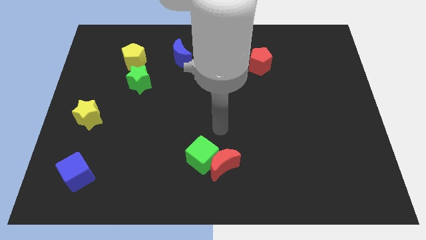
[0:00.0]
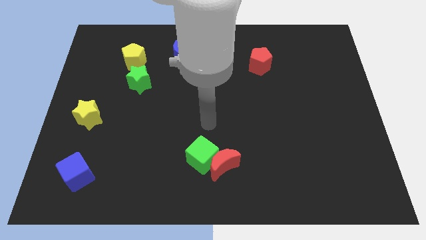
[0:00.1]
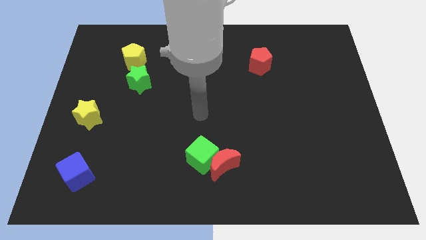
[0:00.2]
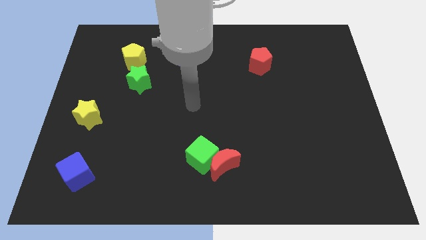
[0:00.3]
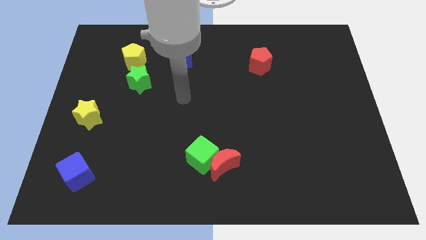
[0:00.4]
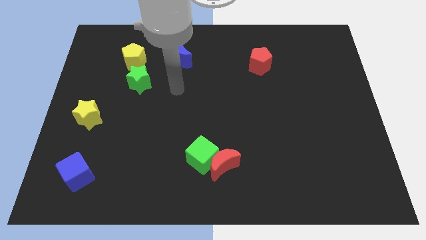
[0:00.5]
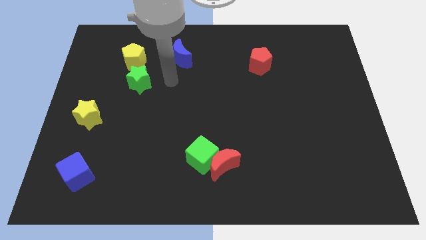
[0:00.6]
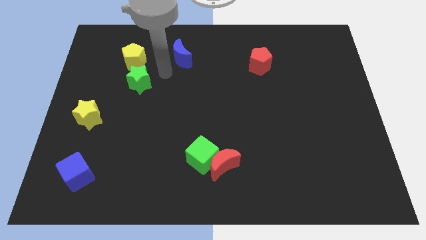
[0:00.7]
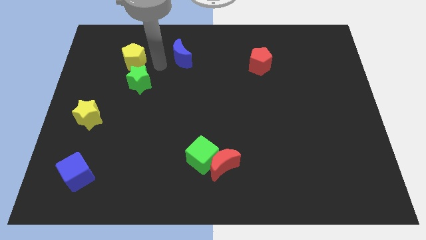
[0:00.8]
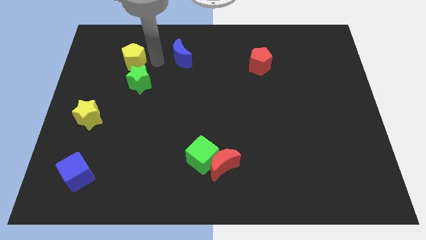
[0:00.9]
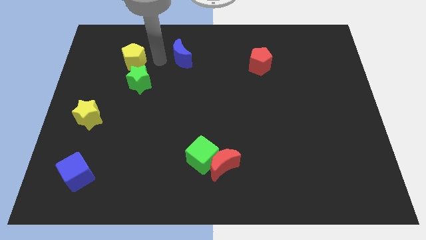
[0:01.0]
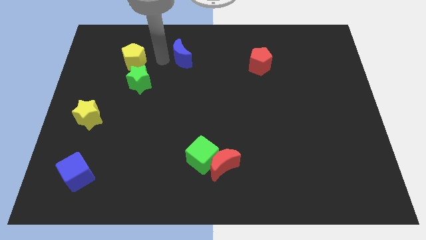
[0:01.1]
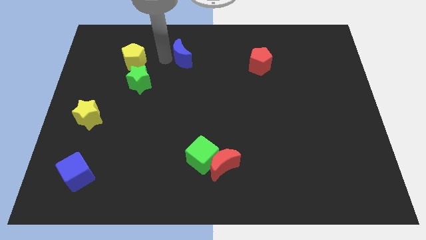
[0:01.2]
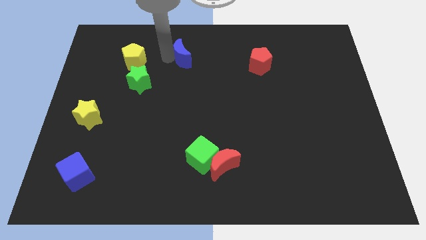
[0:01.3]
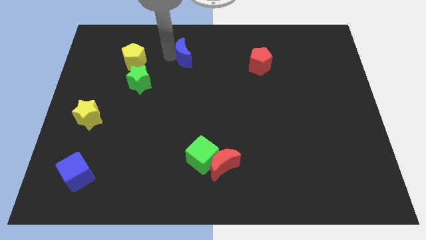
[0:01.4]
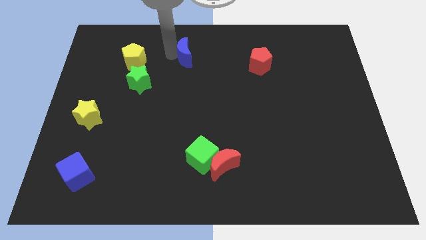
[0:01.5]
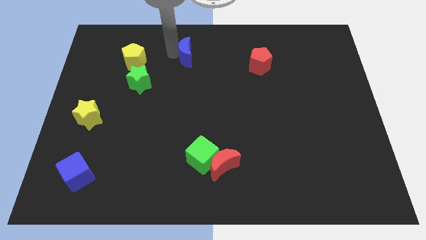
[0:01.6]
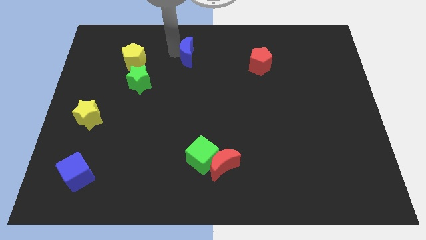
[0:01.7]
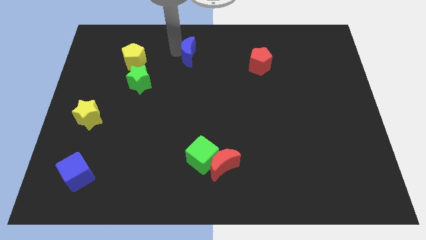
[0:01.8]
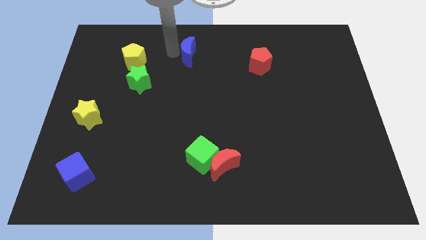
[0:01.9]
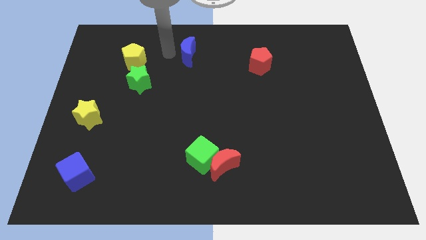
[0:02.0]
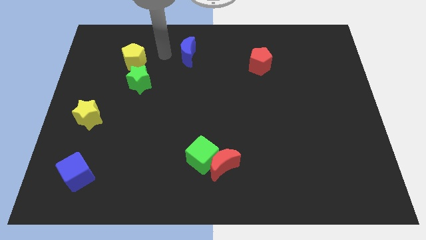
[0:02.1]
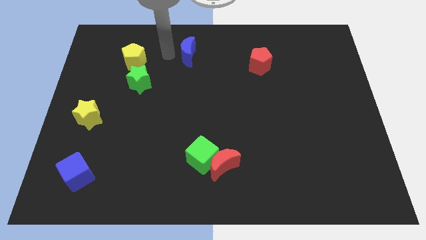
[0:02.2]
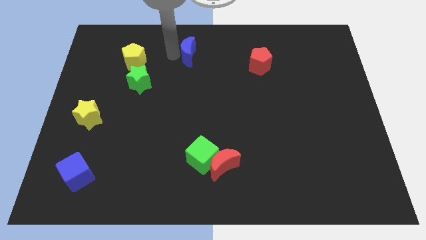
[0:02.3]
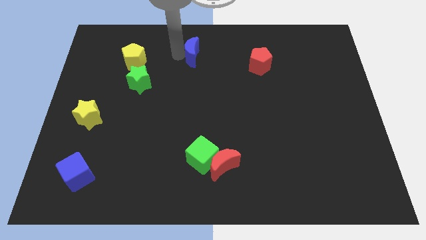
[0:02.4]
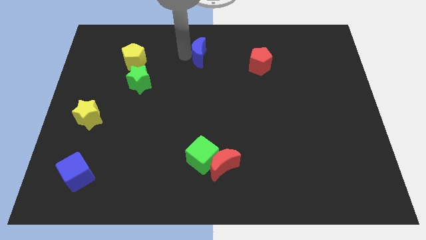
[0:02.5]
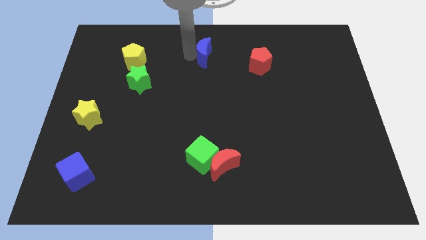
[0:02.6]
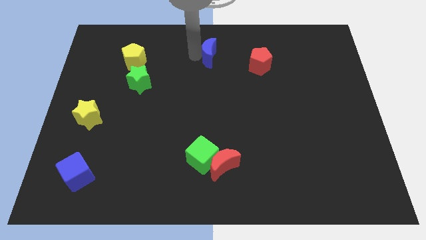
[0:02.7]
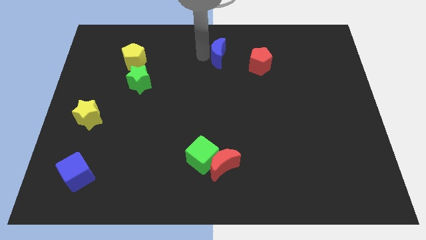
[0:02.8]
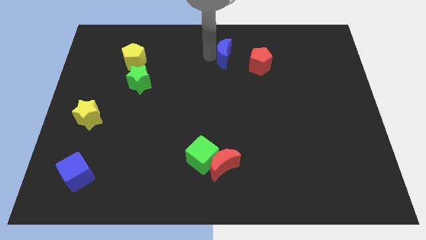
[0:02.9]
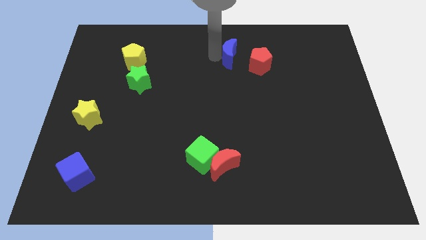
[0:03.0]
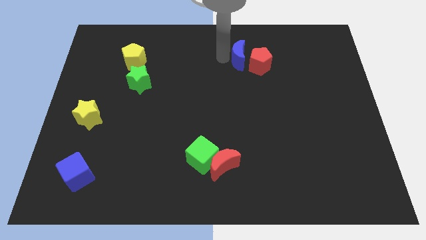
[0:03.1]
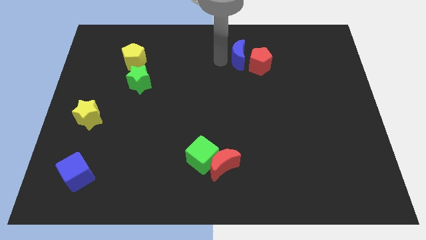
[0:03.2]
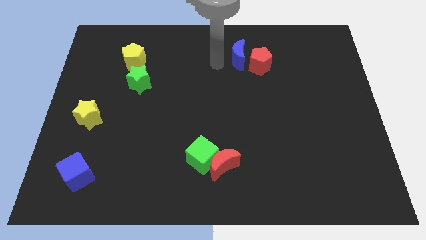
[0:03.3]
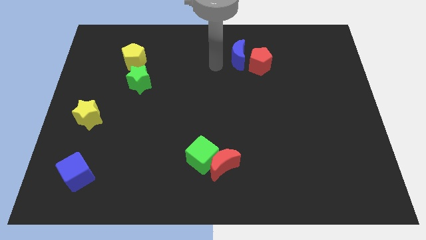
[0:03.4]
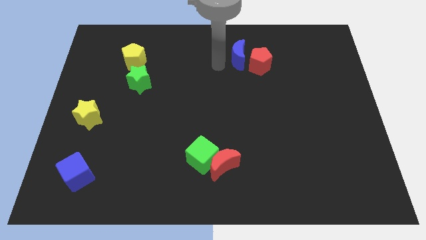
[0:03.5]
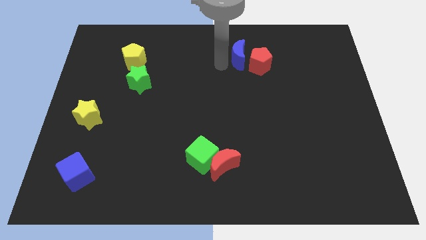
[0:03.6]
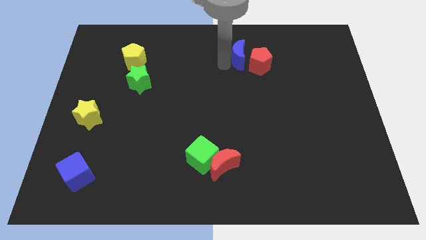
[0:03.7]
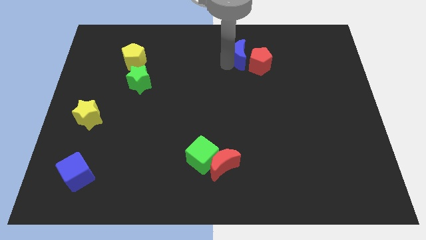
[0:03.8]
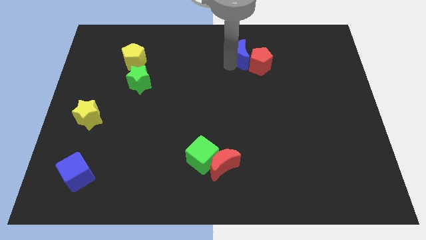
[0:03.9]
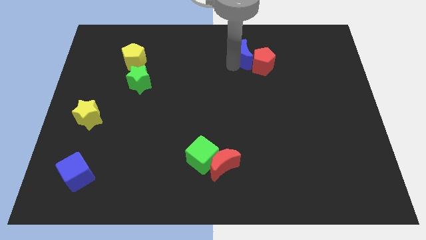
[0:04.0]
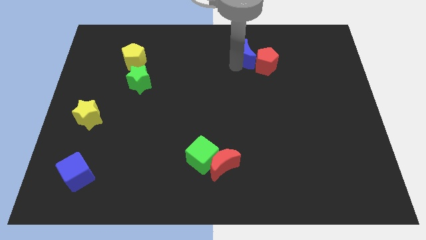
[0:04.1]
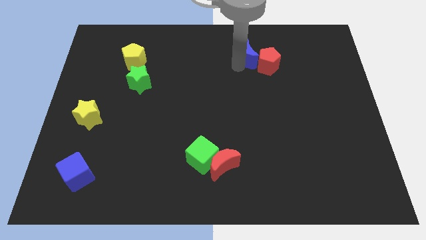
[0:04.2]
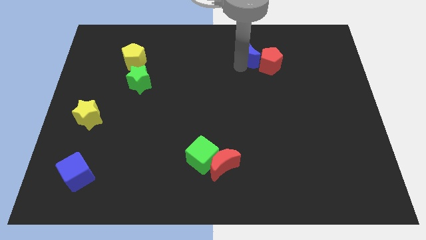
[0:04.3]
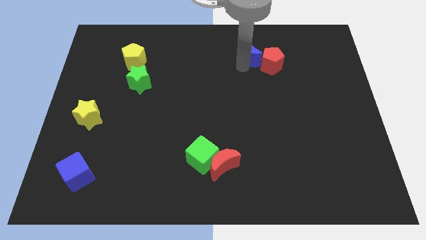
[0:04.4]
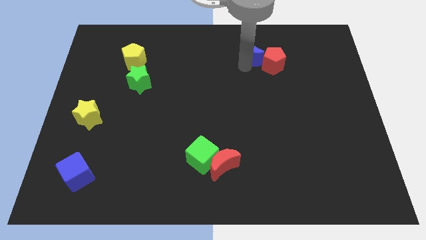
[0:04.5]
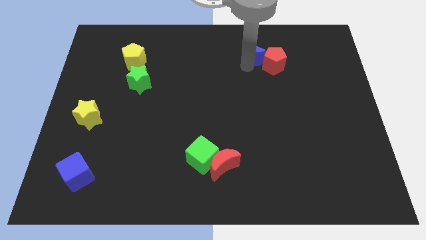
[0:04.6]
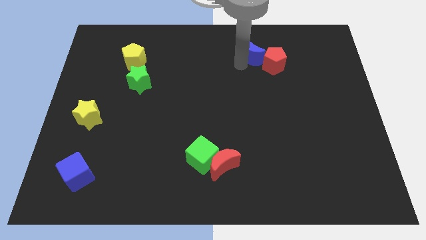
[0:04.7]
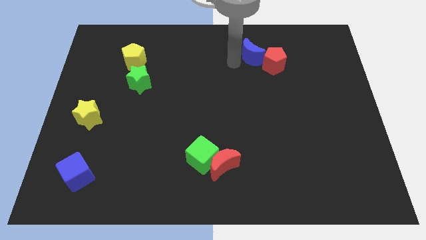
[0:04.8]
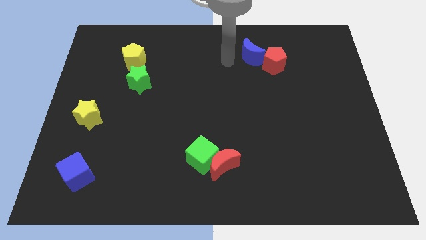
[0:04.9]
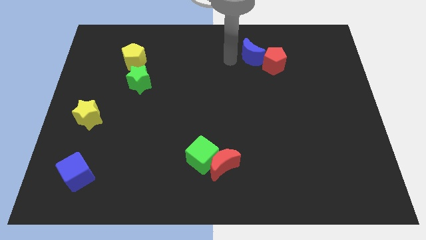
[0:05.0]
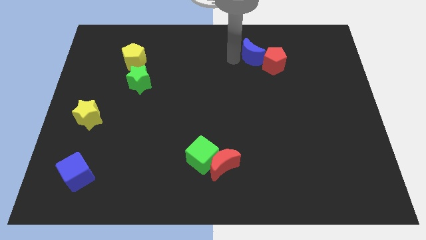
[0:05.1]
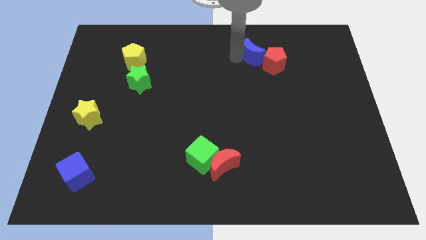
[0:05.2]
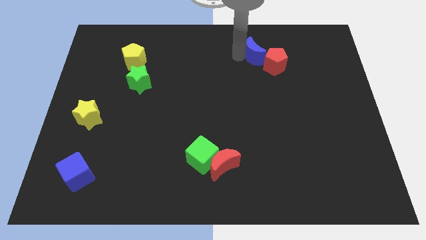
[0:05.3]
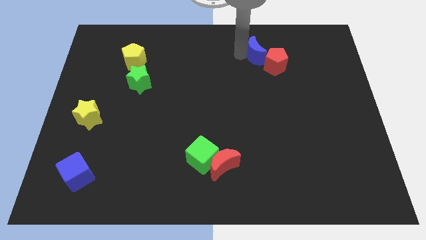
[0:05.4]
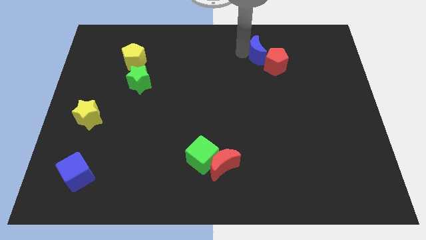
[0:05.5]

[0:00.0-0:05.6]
move the blue moon right

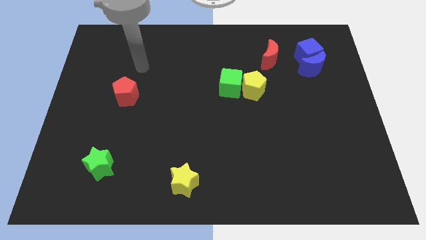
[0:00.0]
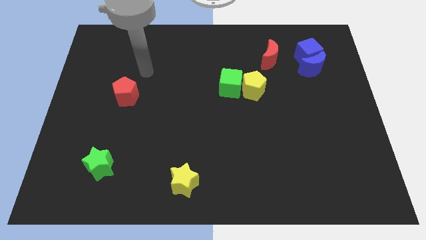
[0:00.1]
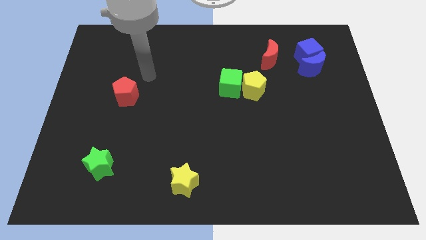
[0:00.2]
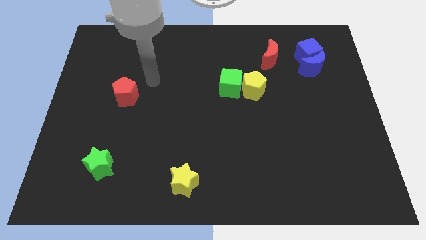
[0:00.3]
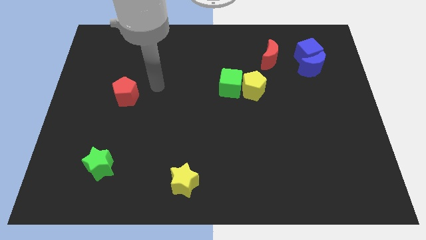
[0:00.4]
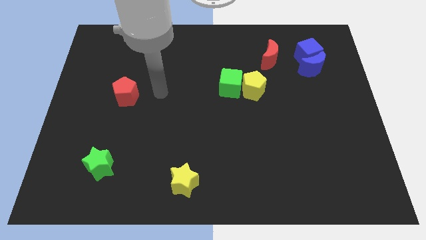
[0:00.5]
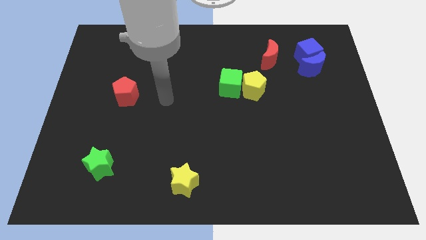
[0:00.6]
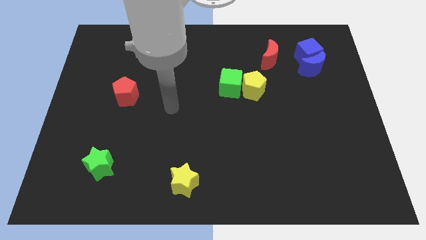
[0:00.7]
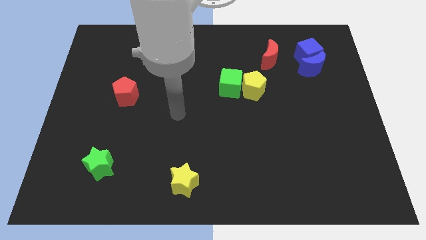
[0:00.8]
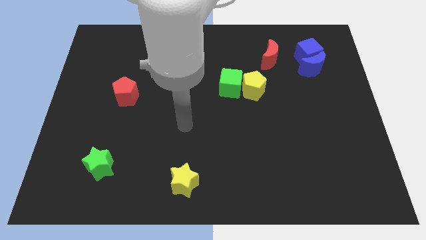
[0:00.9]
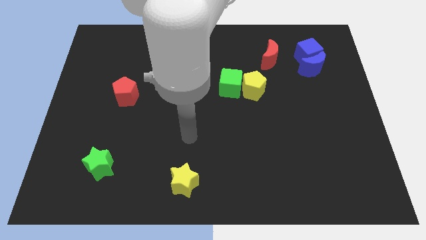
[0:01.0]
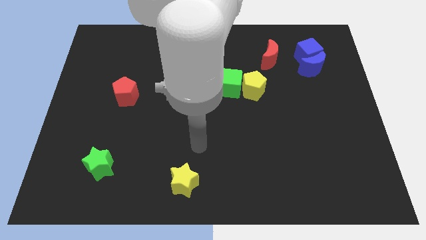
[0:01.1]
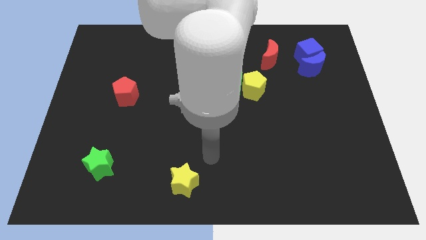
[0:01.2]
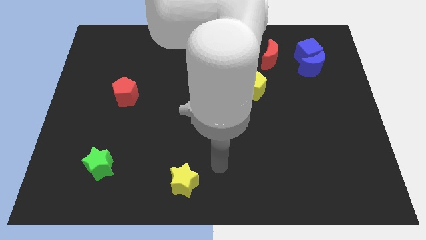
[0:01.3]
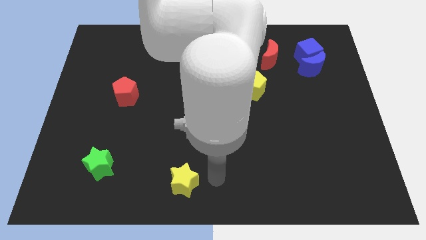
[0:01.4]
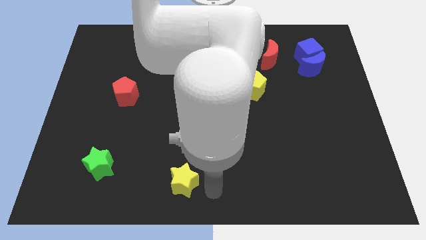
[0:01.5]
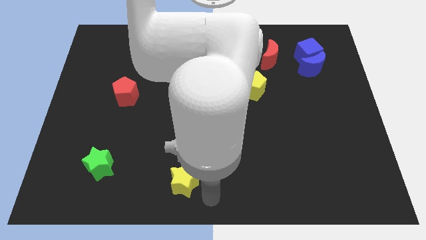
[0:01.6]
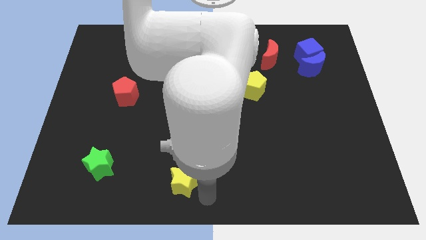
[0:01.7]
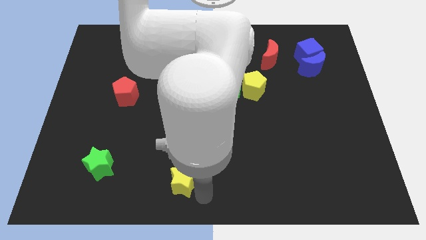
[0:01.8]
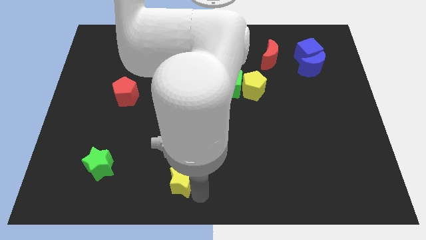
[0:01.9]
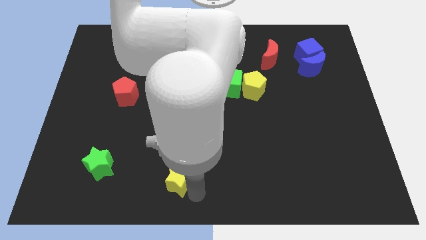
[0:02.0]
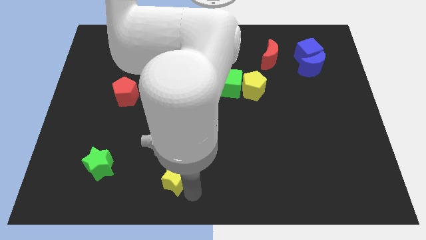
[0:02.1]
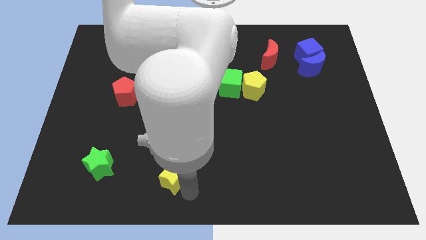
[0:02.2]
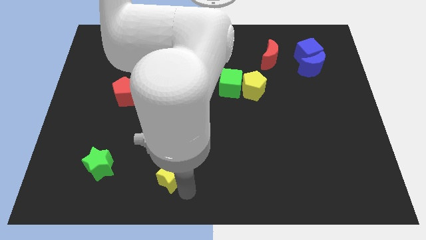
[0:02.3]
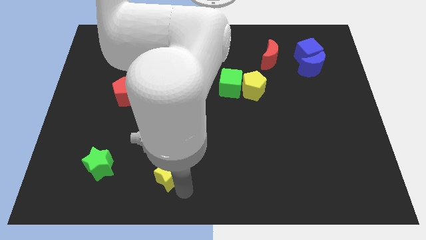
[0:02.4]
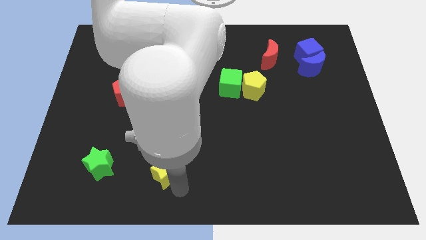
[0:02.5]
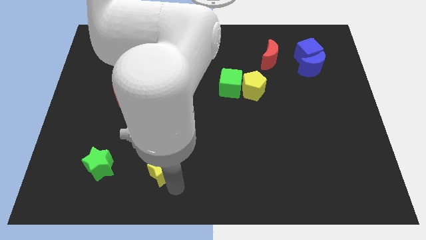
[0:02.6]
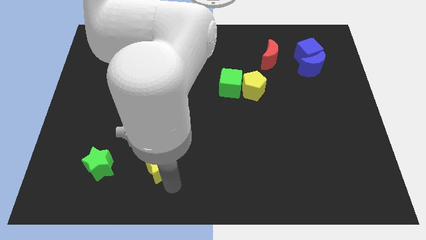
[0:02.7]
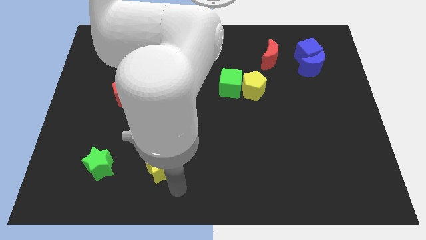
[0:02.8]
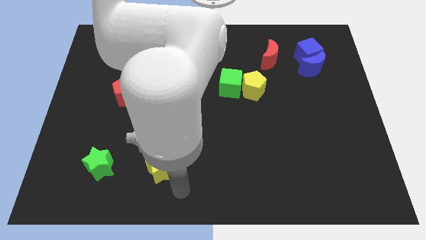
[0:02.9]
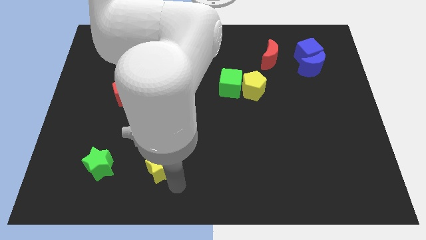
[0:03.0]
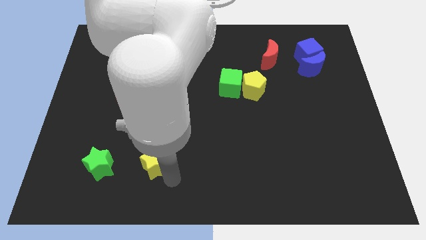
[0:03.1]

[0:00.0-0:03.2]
slightly move the yellow star upwards and to the left diagonally
